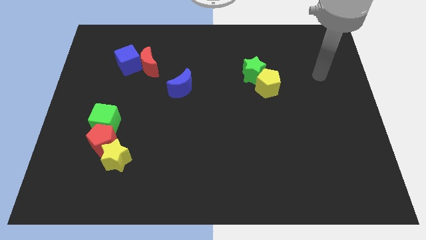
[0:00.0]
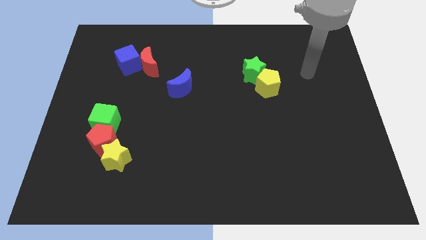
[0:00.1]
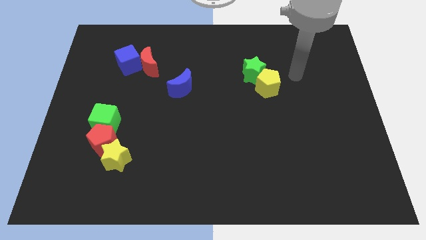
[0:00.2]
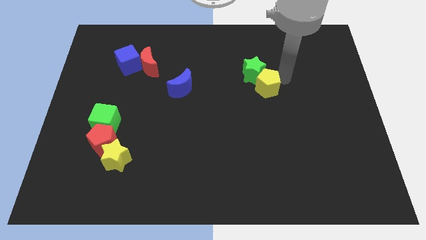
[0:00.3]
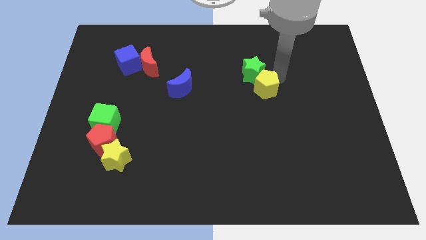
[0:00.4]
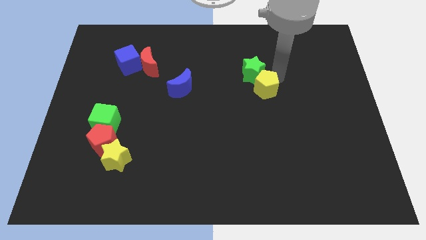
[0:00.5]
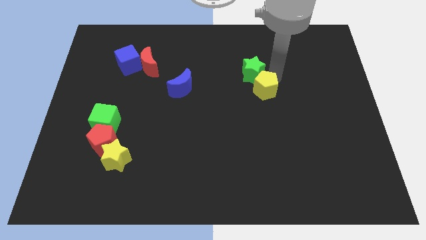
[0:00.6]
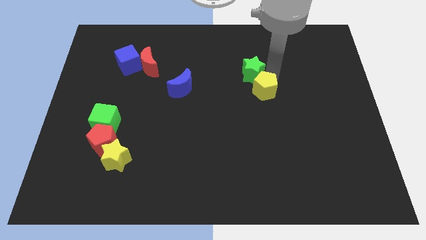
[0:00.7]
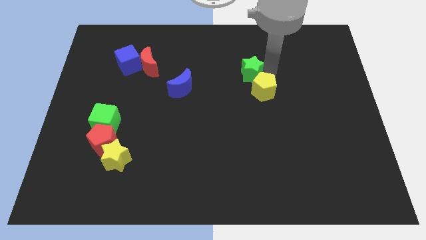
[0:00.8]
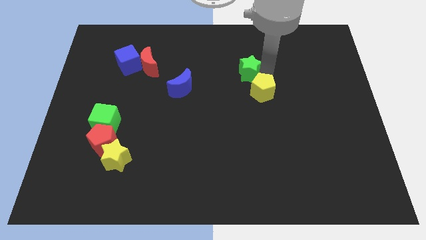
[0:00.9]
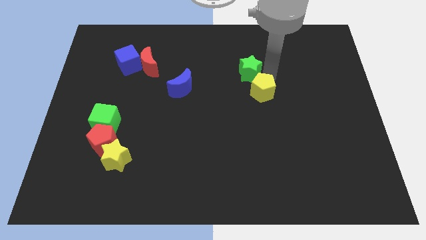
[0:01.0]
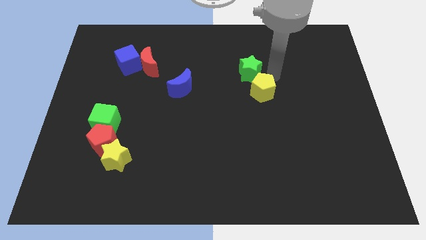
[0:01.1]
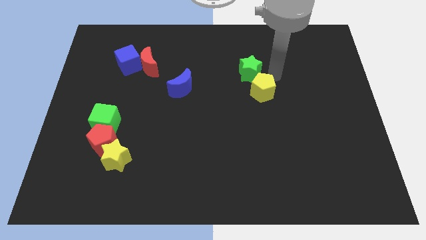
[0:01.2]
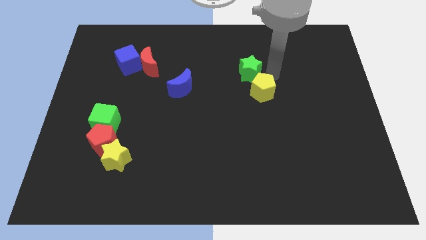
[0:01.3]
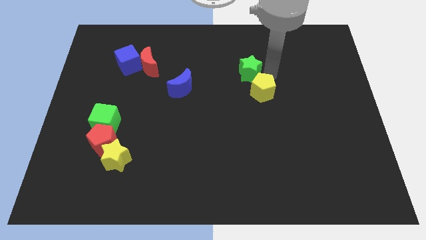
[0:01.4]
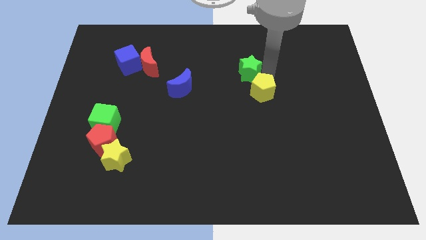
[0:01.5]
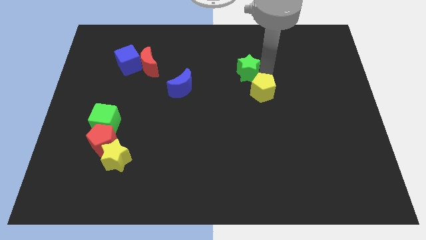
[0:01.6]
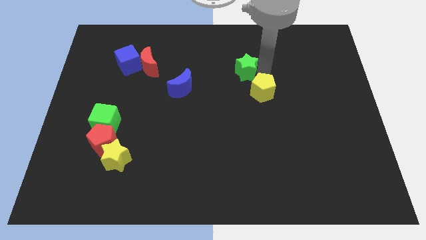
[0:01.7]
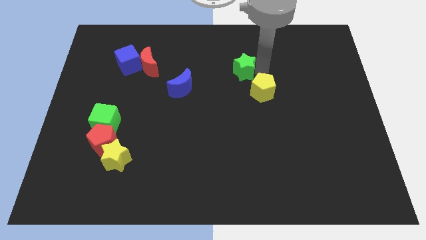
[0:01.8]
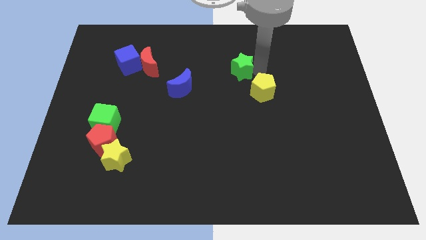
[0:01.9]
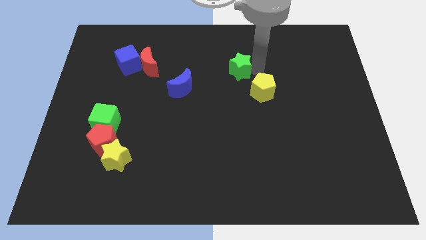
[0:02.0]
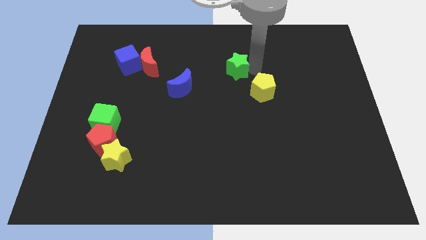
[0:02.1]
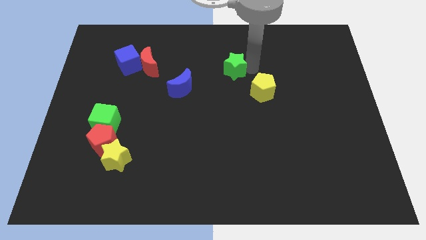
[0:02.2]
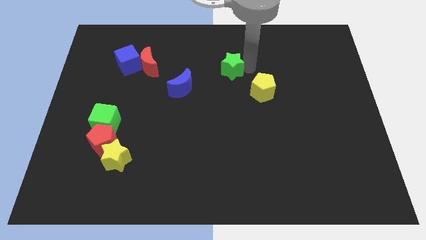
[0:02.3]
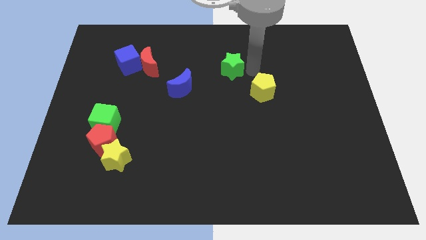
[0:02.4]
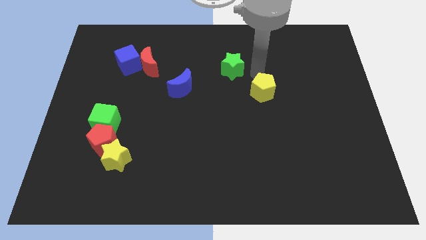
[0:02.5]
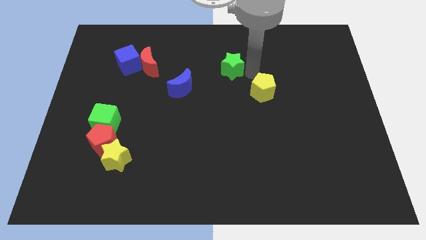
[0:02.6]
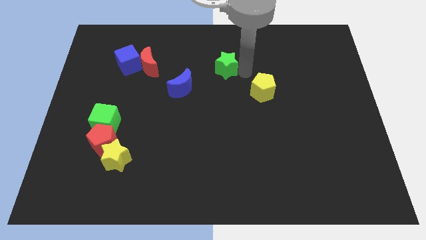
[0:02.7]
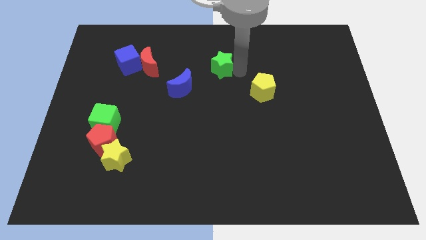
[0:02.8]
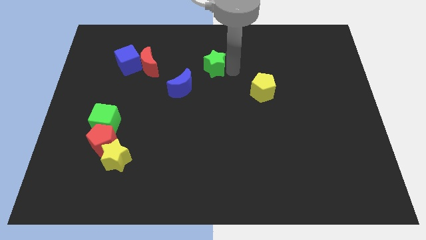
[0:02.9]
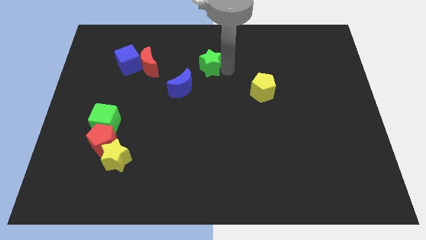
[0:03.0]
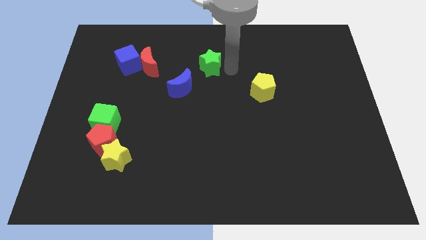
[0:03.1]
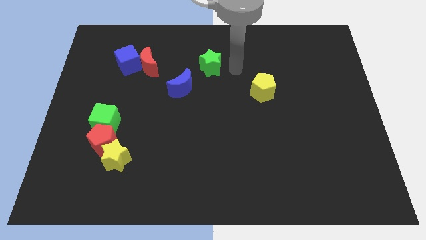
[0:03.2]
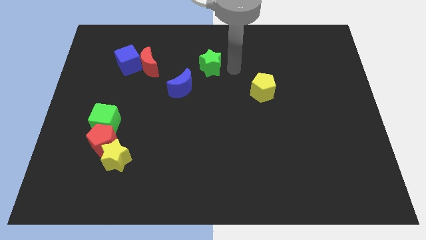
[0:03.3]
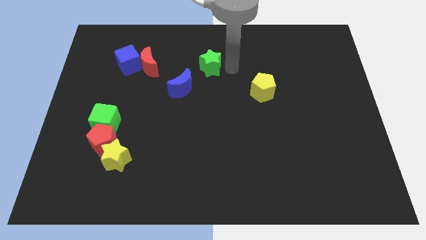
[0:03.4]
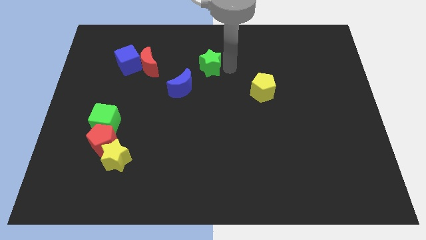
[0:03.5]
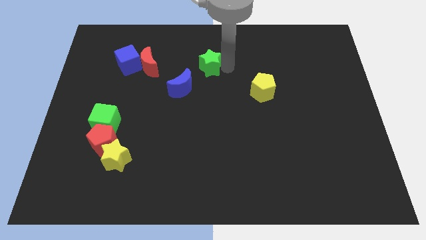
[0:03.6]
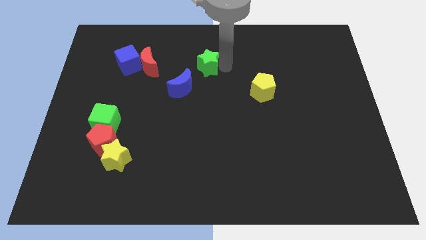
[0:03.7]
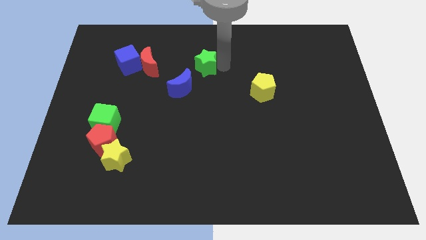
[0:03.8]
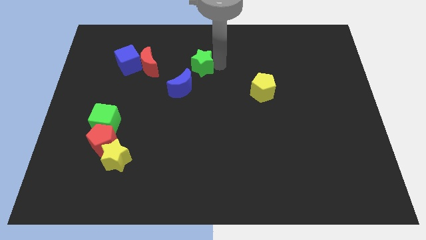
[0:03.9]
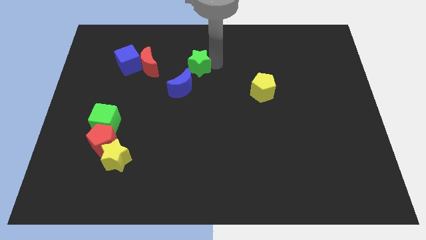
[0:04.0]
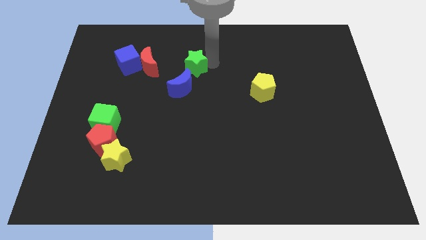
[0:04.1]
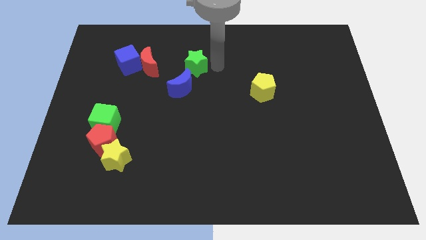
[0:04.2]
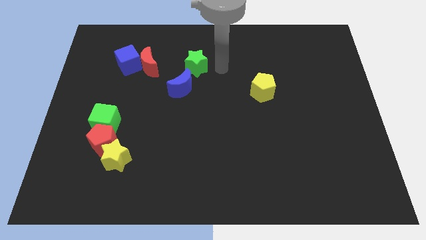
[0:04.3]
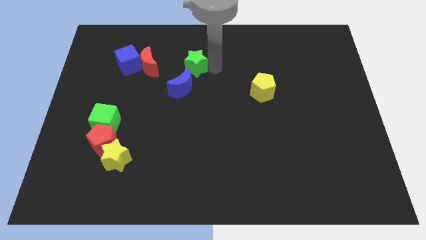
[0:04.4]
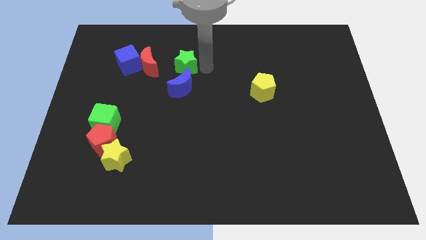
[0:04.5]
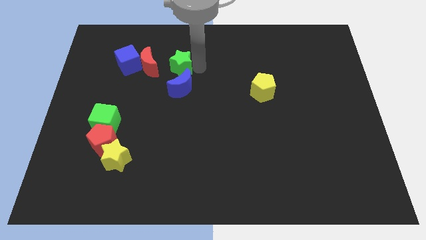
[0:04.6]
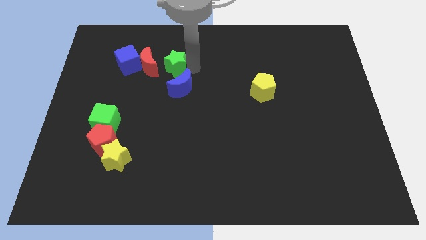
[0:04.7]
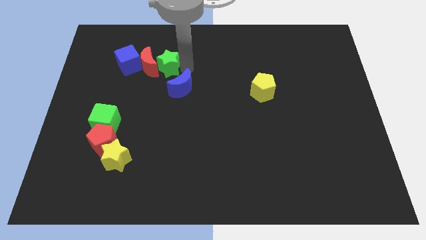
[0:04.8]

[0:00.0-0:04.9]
slide the green star towards the red moon

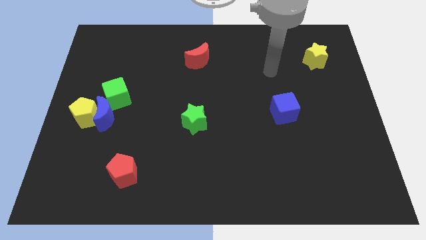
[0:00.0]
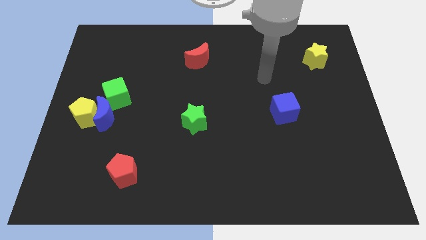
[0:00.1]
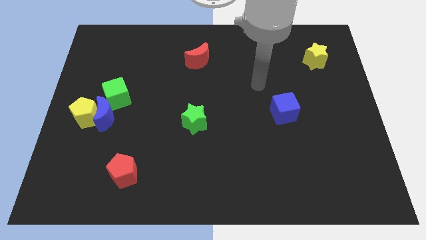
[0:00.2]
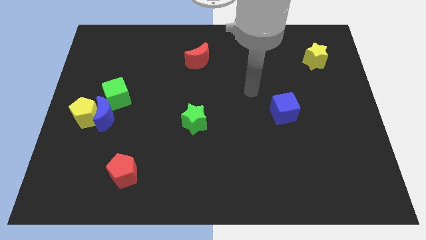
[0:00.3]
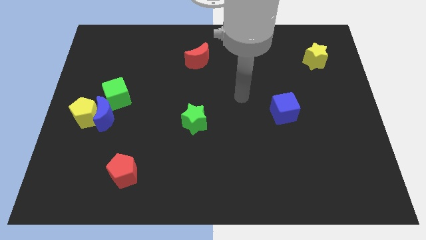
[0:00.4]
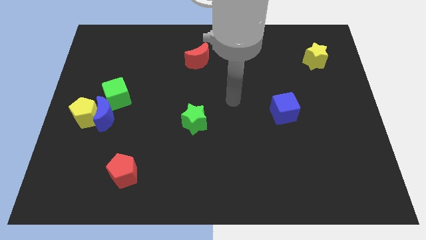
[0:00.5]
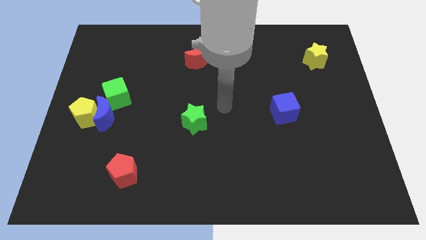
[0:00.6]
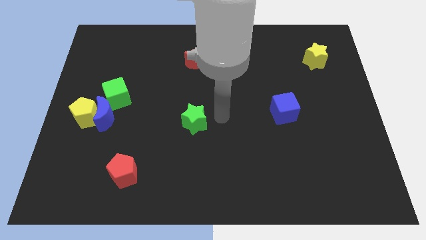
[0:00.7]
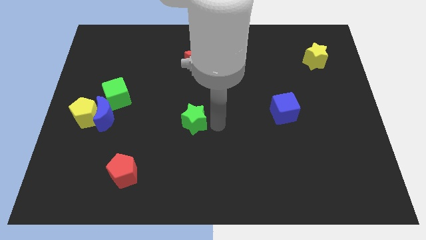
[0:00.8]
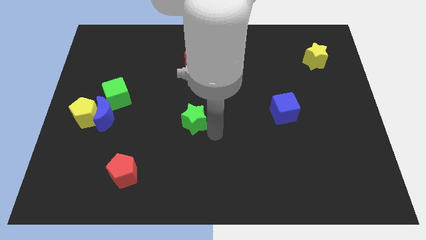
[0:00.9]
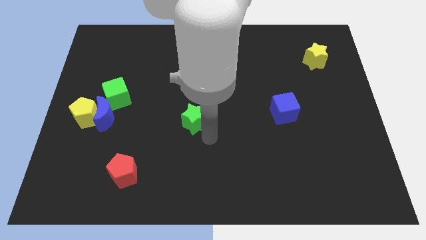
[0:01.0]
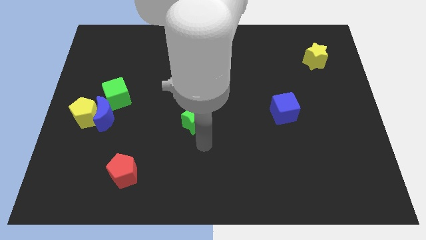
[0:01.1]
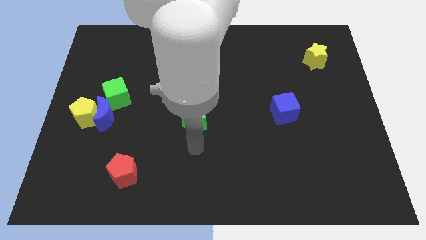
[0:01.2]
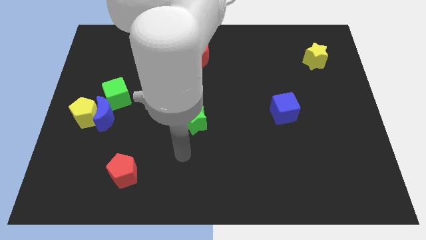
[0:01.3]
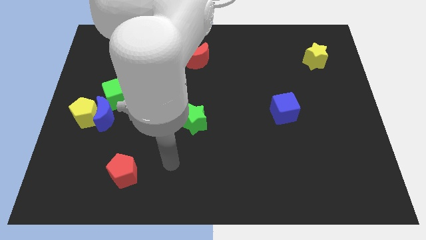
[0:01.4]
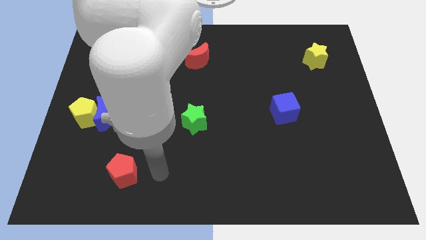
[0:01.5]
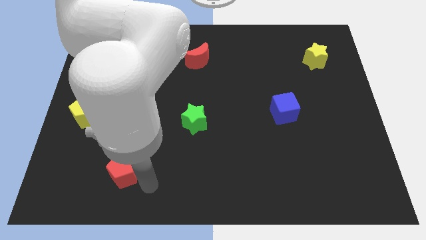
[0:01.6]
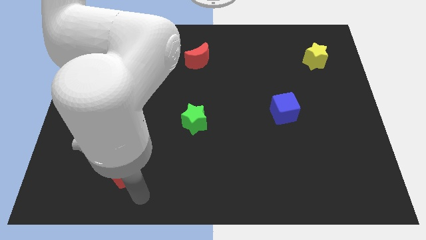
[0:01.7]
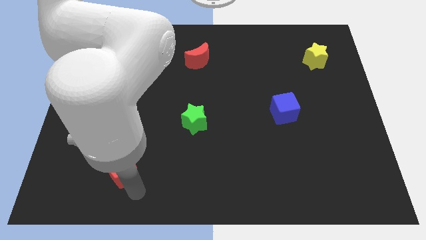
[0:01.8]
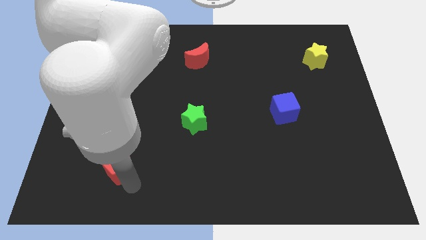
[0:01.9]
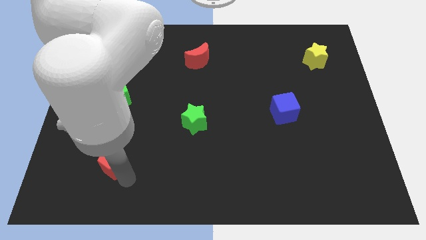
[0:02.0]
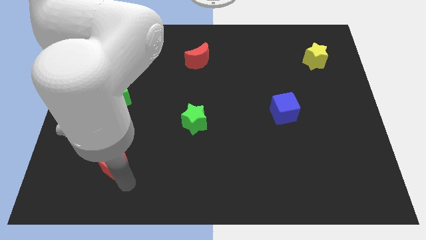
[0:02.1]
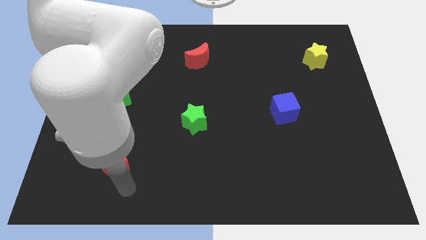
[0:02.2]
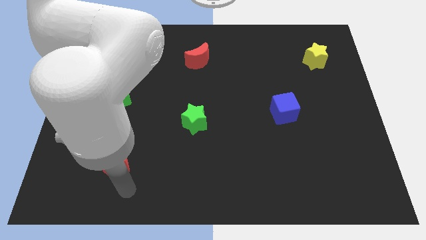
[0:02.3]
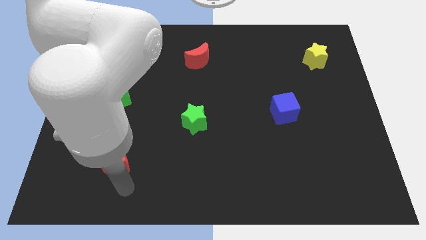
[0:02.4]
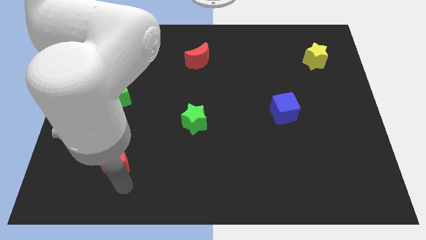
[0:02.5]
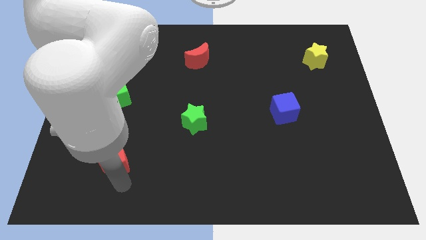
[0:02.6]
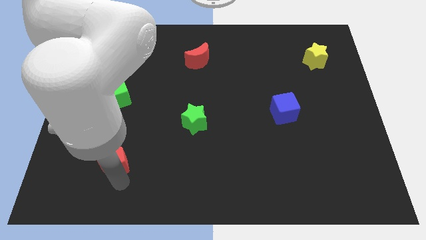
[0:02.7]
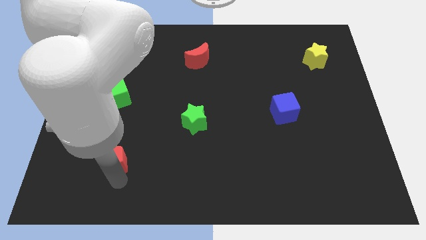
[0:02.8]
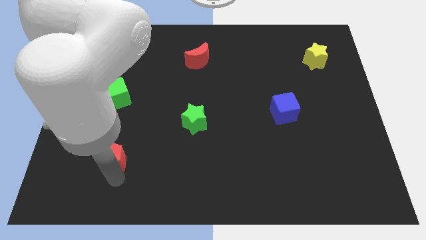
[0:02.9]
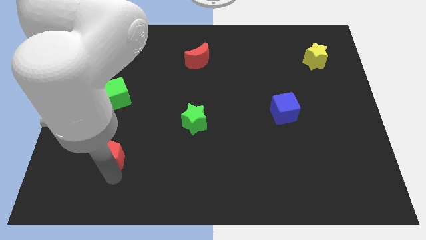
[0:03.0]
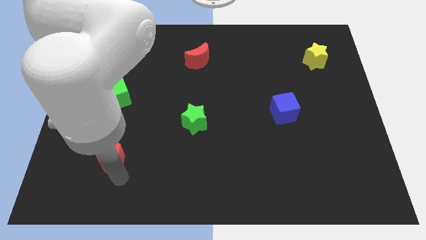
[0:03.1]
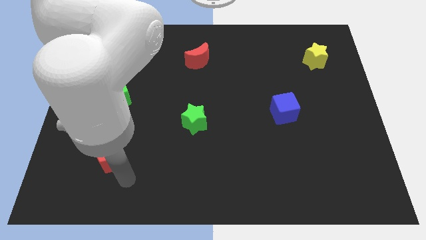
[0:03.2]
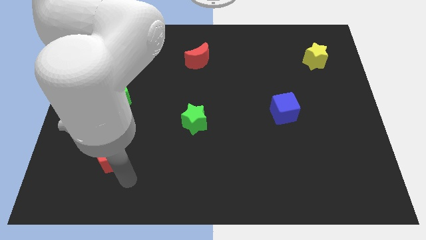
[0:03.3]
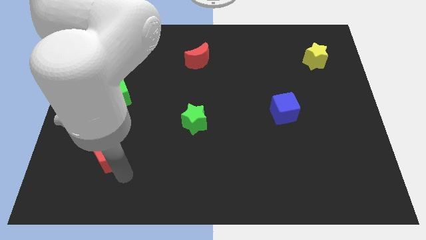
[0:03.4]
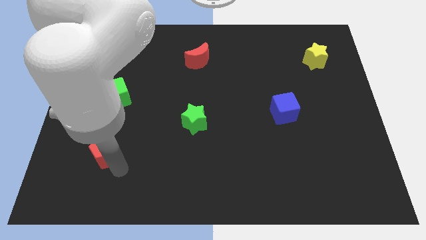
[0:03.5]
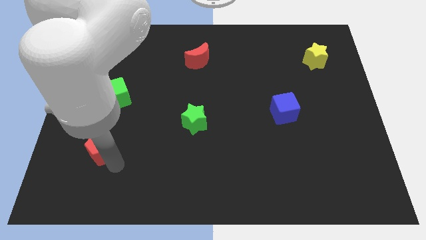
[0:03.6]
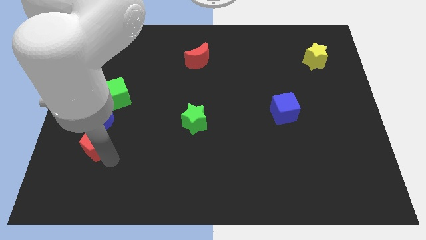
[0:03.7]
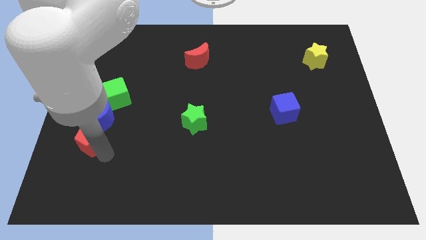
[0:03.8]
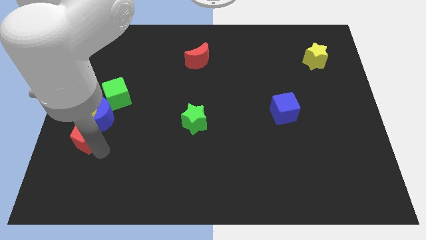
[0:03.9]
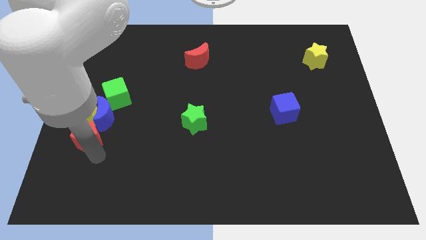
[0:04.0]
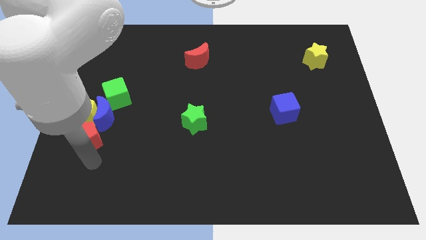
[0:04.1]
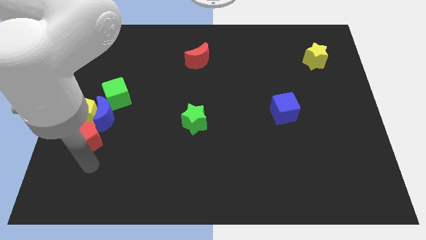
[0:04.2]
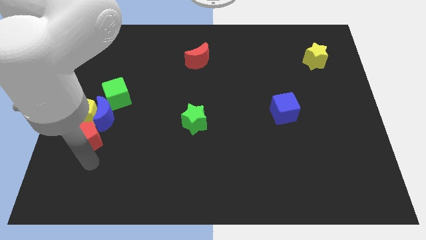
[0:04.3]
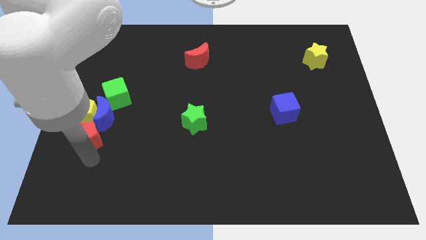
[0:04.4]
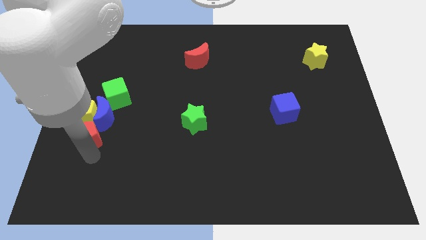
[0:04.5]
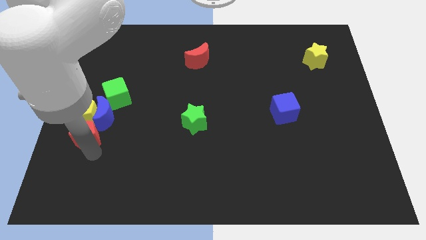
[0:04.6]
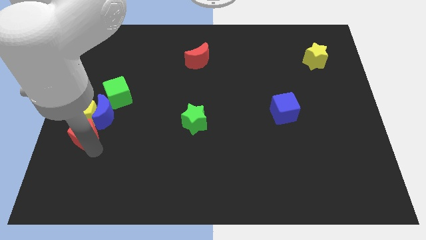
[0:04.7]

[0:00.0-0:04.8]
slide the red pentagon to the yellow pentagon
